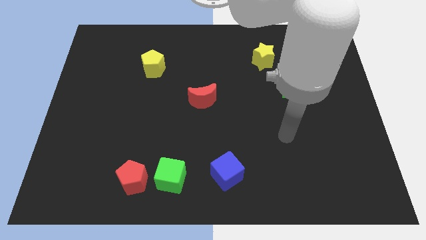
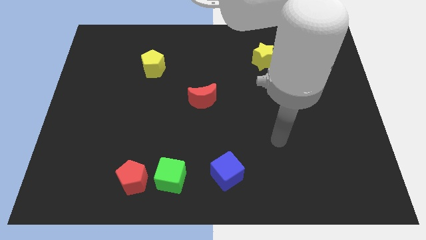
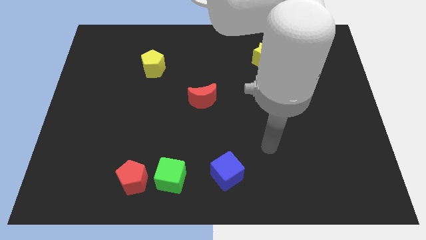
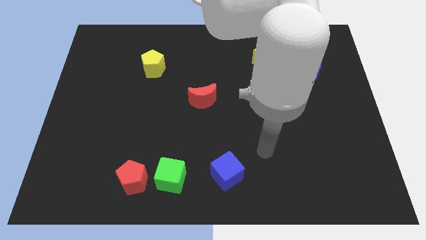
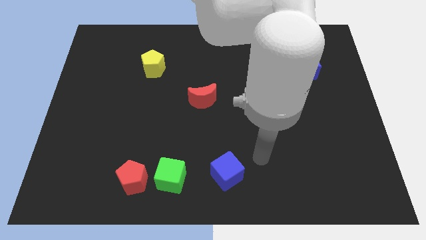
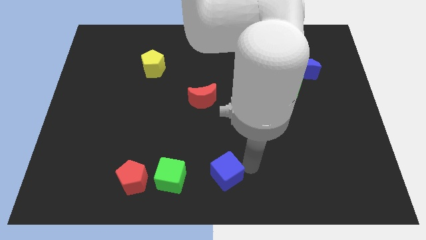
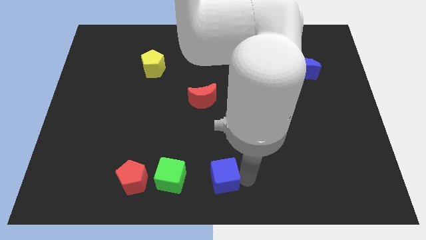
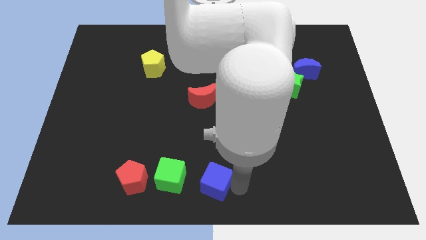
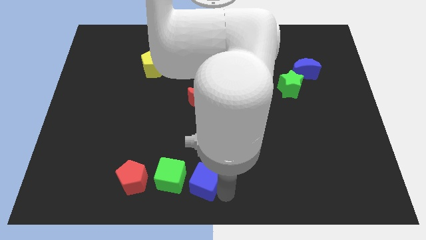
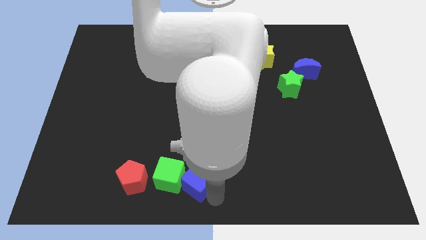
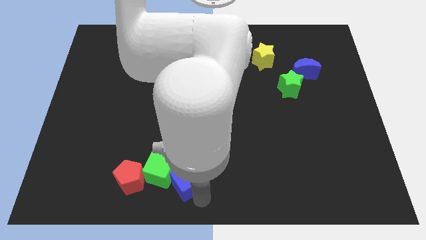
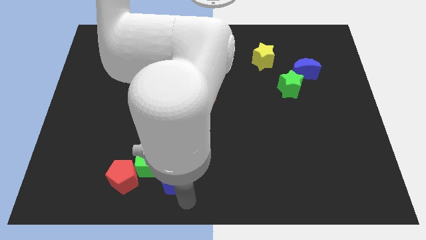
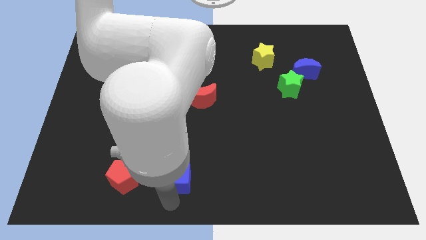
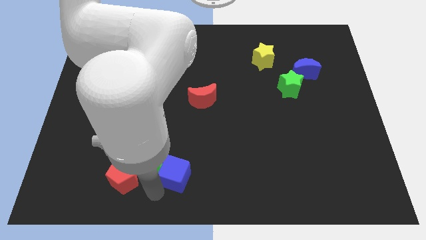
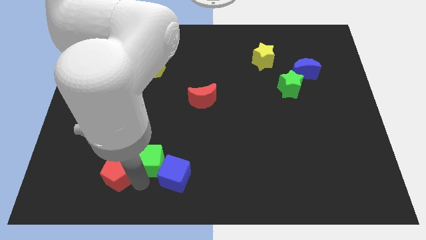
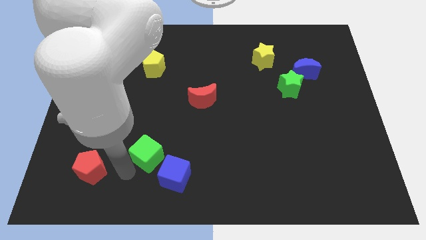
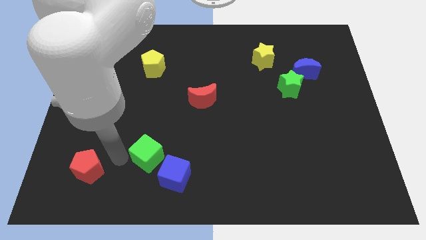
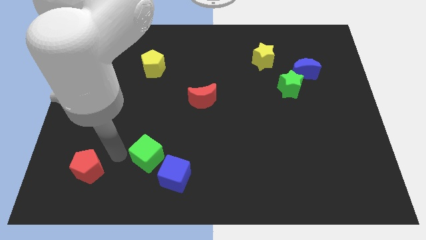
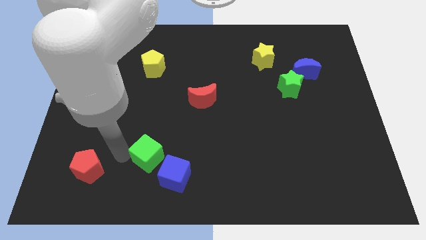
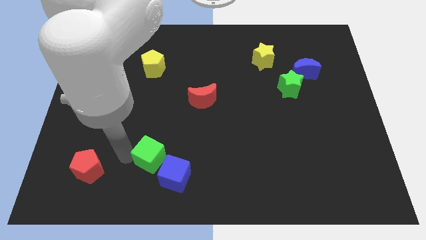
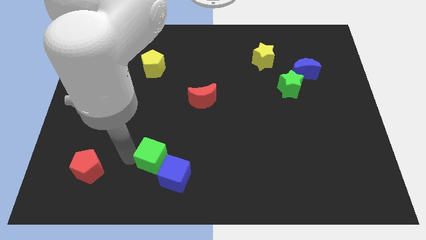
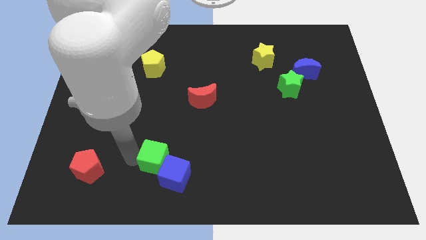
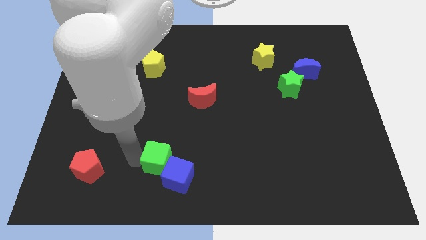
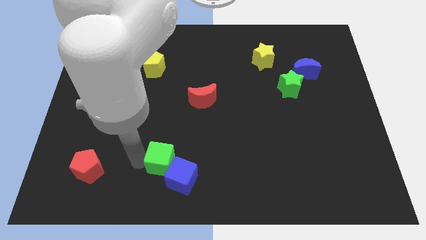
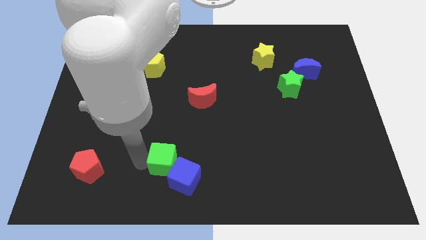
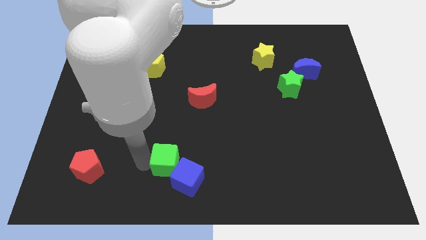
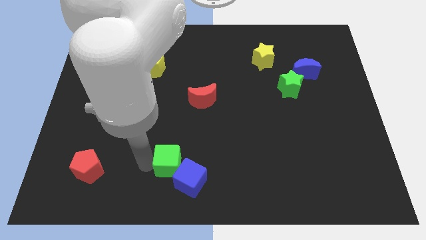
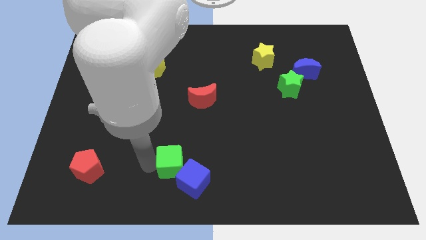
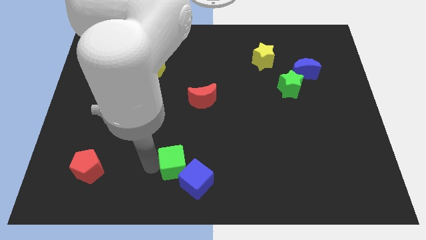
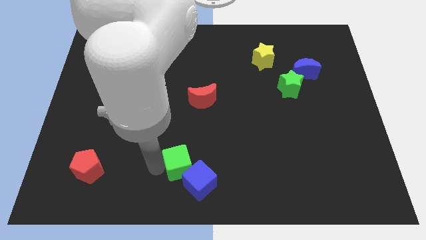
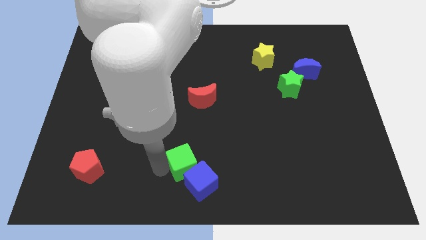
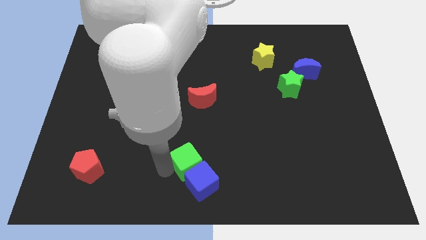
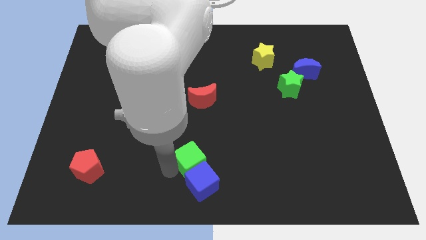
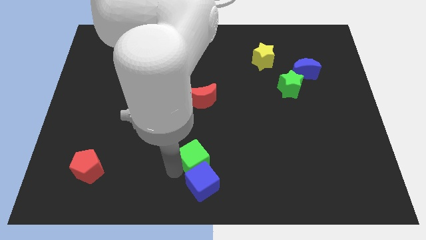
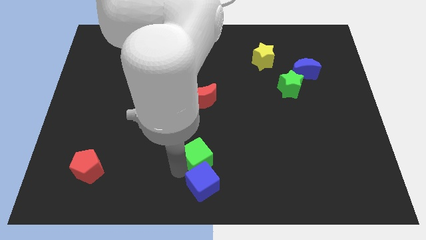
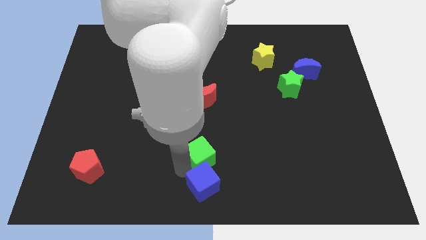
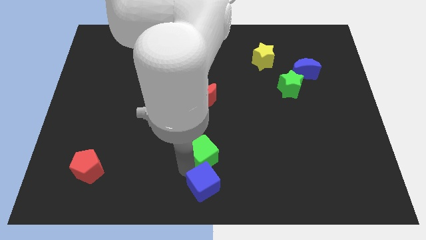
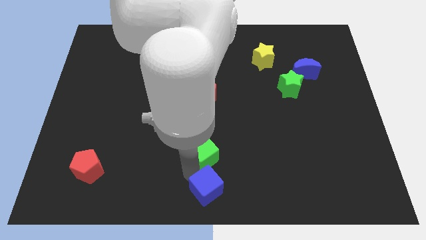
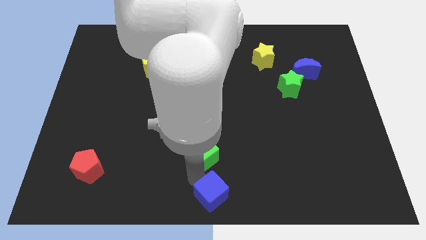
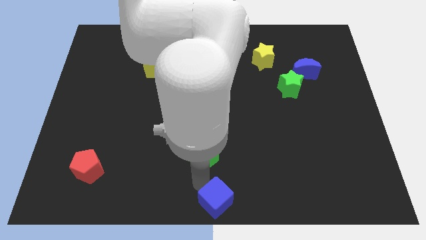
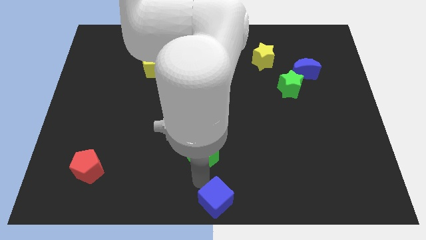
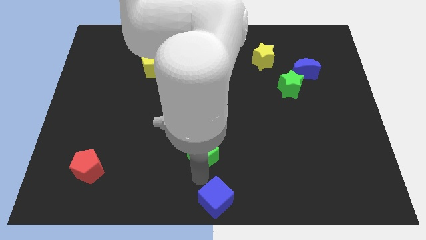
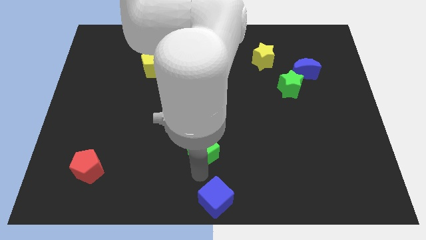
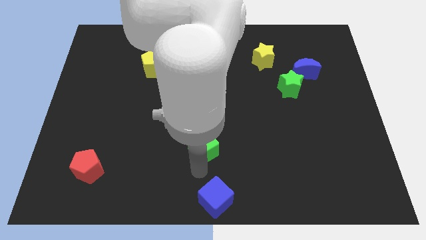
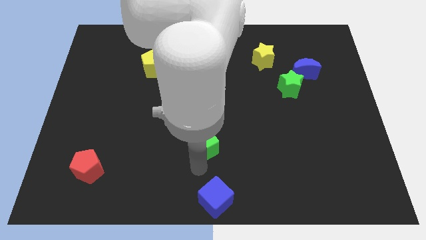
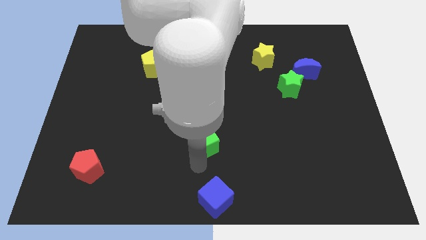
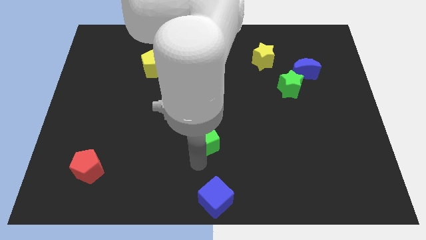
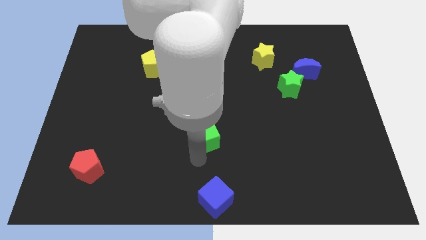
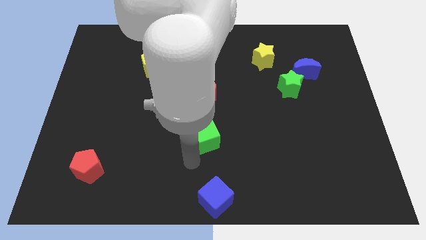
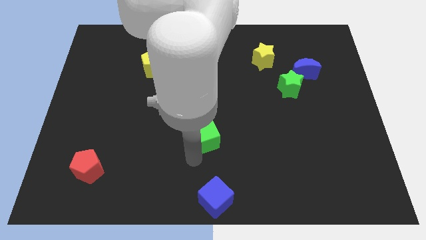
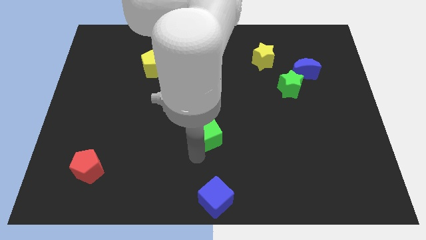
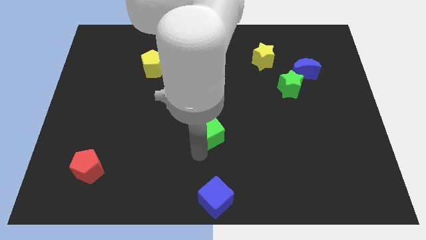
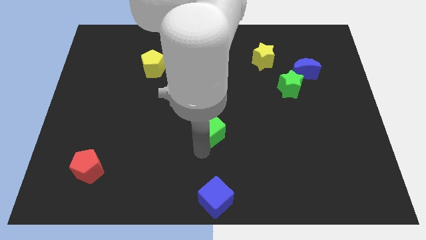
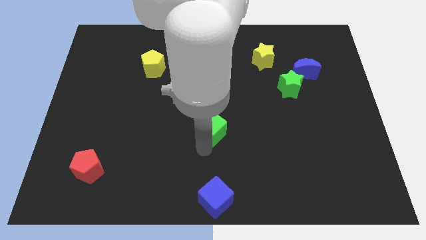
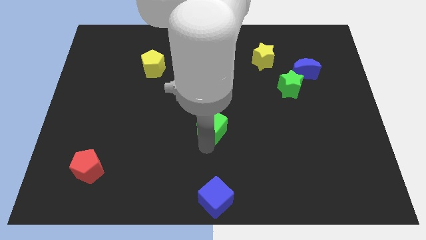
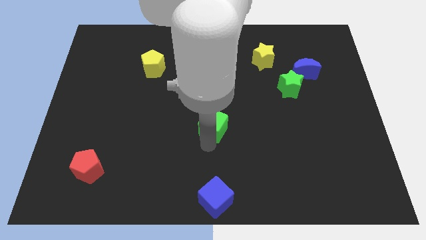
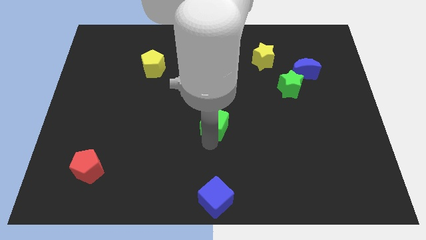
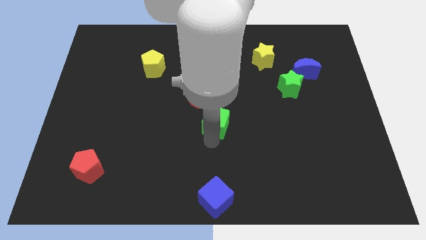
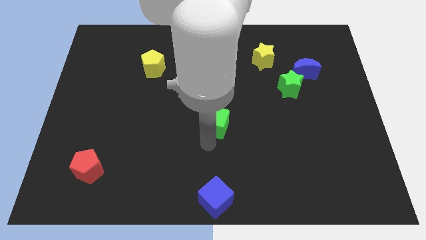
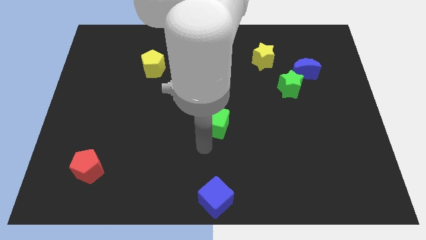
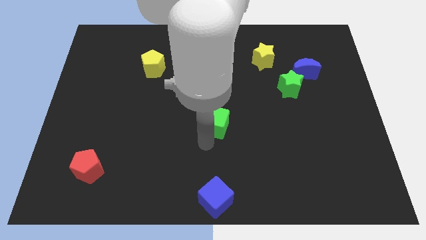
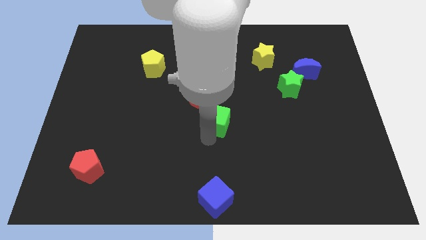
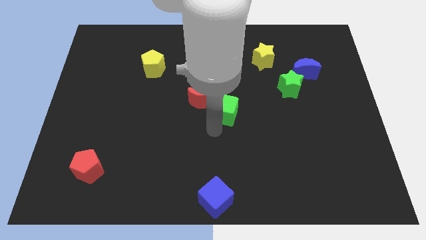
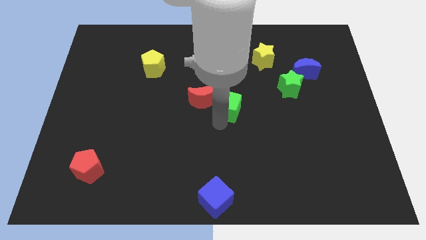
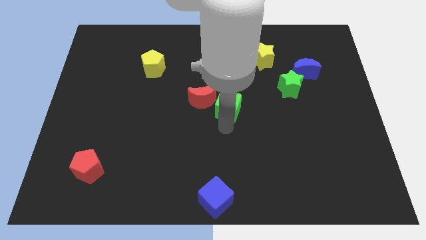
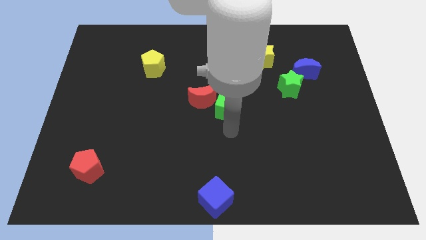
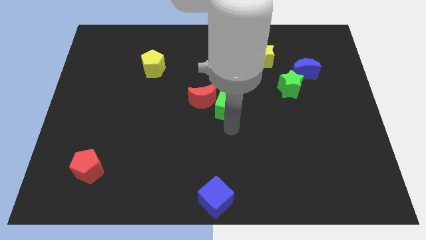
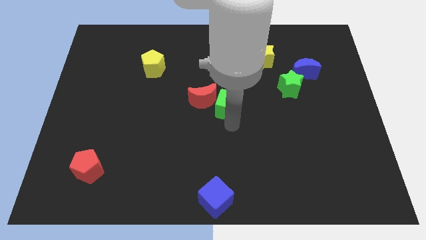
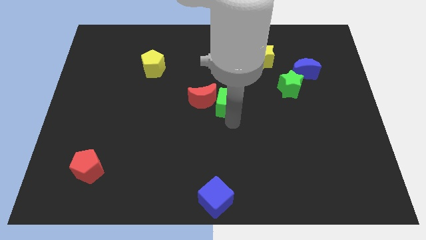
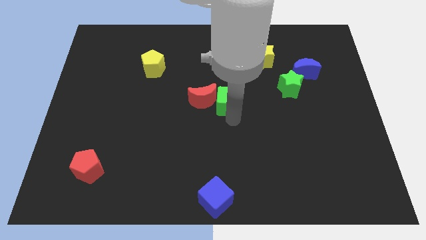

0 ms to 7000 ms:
put the green cube diagonally up and to the right of the red moon
